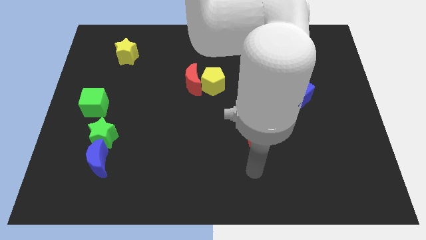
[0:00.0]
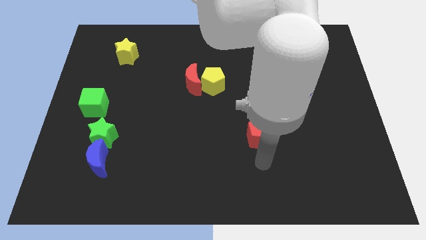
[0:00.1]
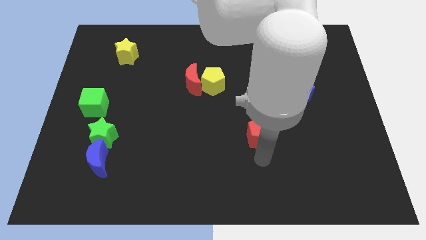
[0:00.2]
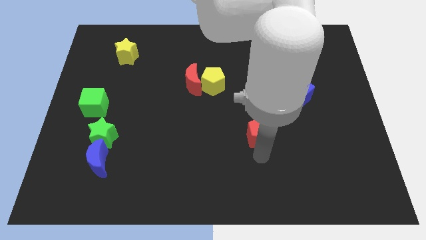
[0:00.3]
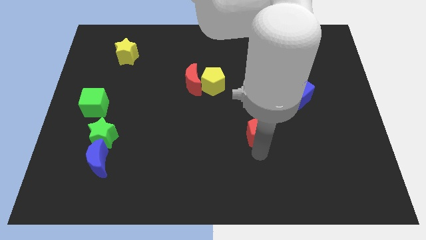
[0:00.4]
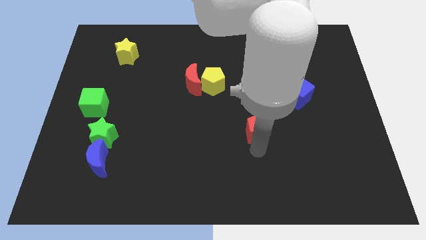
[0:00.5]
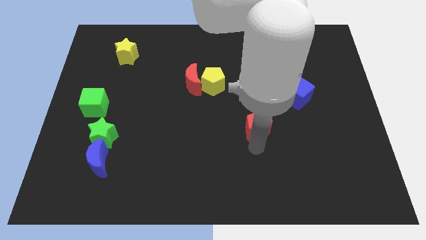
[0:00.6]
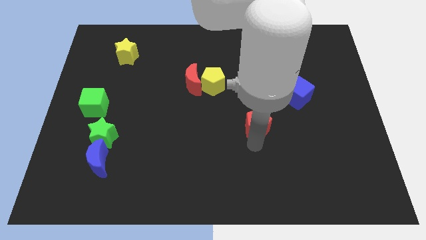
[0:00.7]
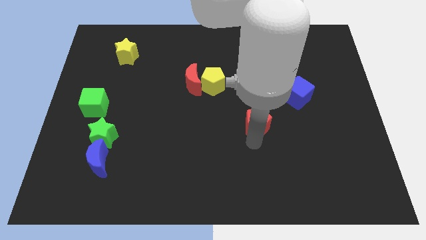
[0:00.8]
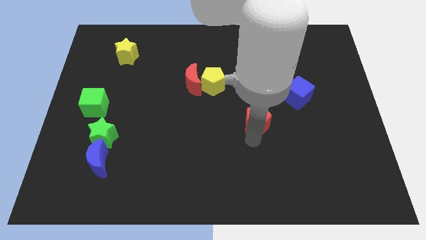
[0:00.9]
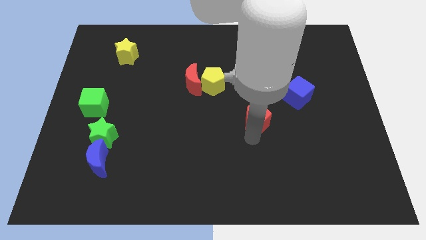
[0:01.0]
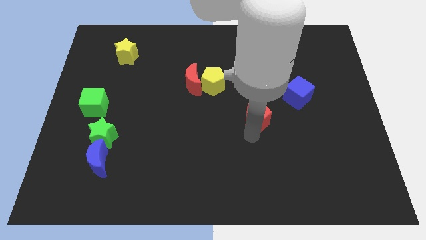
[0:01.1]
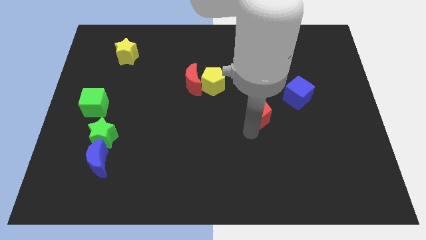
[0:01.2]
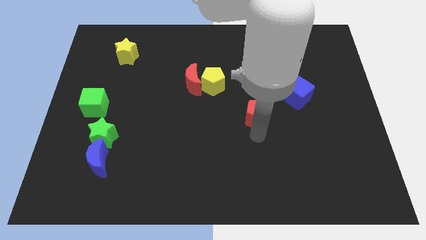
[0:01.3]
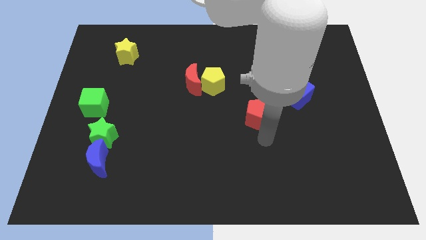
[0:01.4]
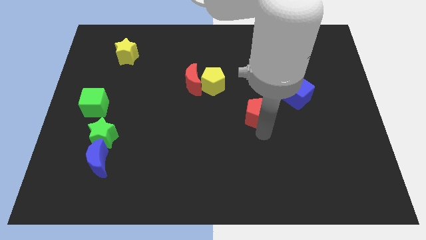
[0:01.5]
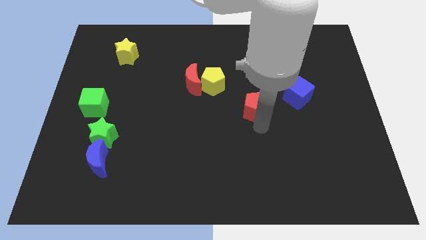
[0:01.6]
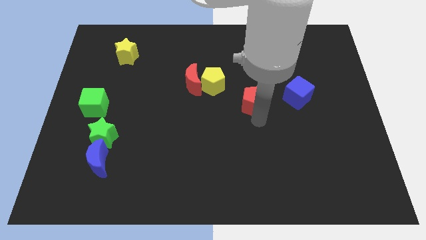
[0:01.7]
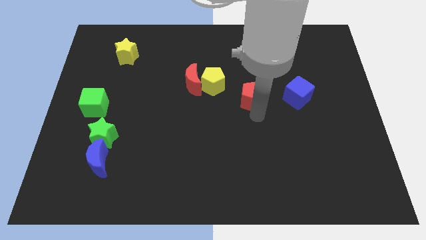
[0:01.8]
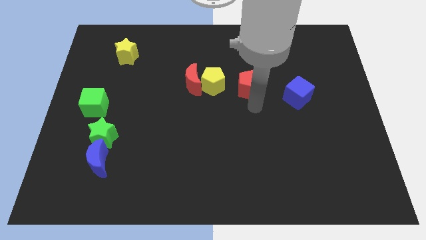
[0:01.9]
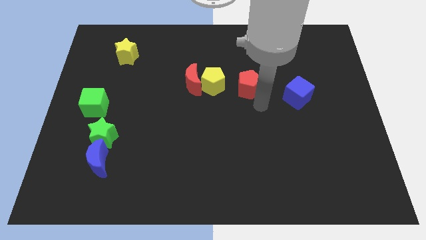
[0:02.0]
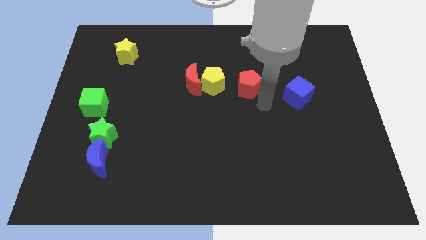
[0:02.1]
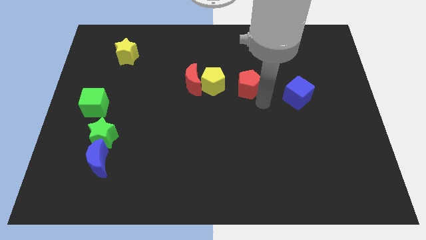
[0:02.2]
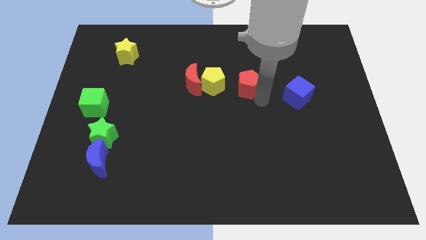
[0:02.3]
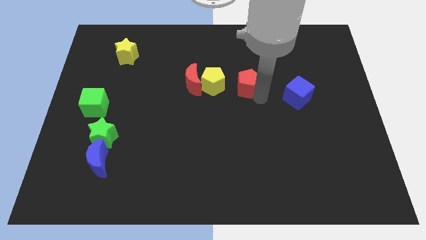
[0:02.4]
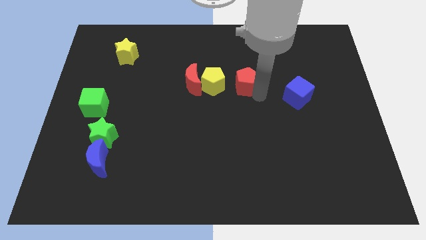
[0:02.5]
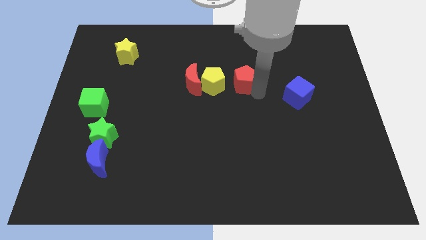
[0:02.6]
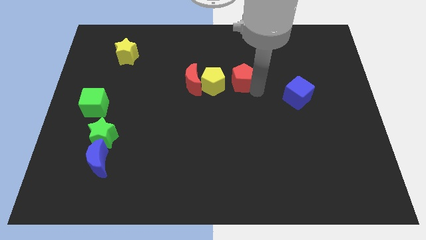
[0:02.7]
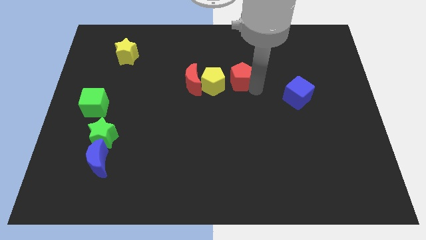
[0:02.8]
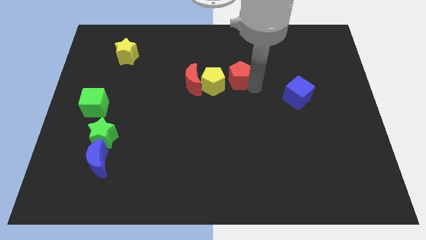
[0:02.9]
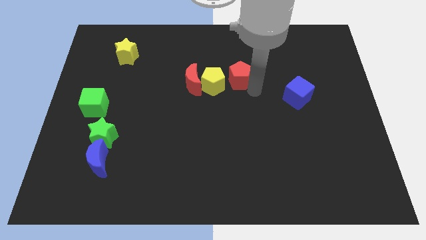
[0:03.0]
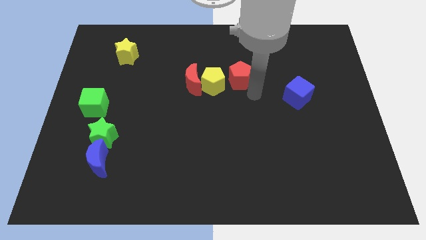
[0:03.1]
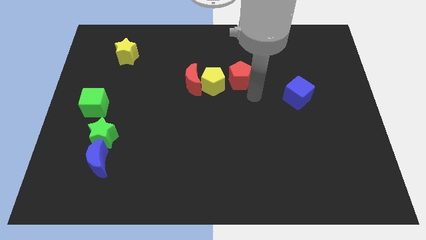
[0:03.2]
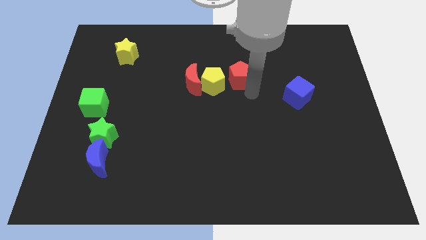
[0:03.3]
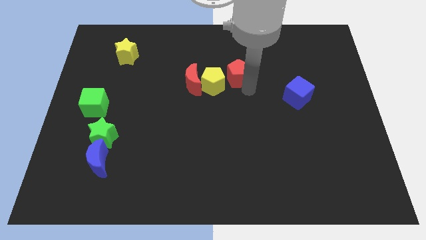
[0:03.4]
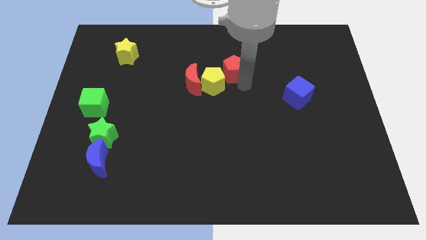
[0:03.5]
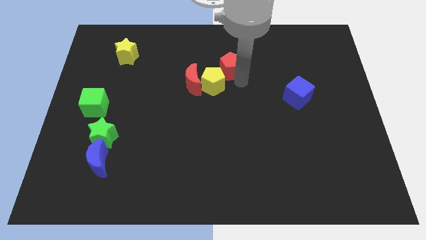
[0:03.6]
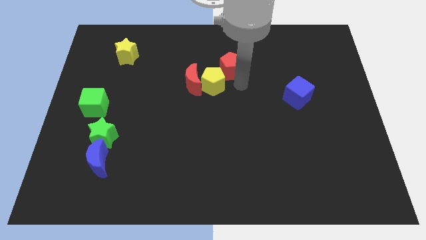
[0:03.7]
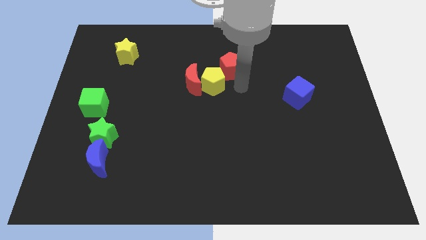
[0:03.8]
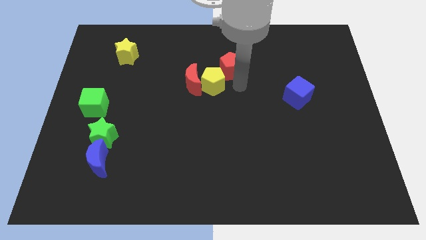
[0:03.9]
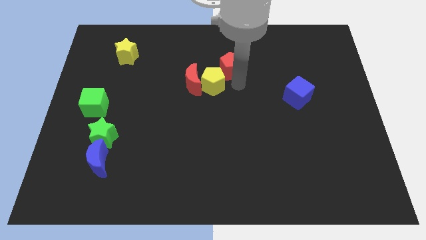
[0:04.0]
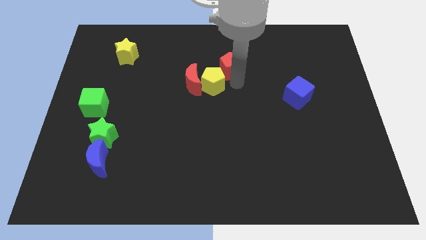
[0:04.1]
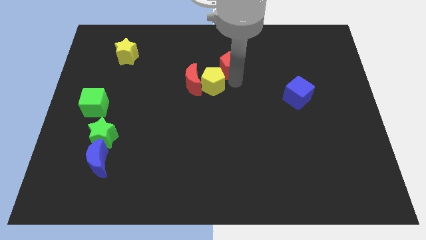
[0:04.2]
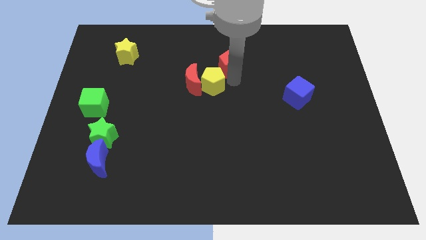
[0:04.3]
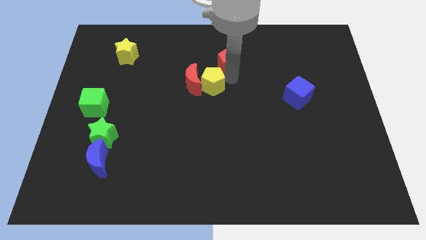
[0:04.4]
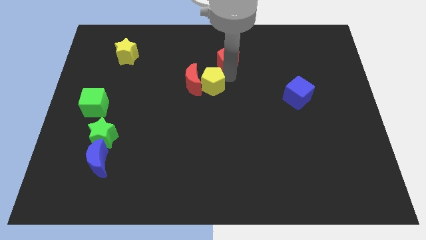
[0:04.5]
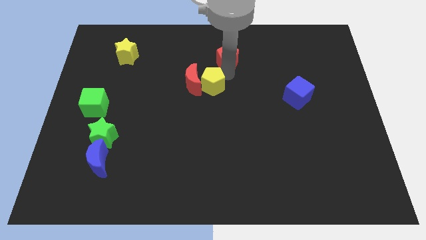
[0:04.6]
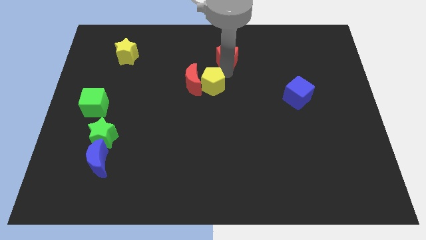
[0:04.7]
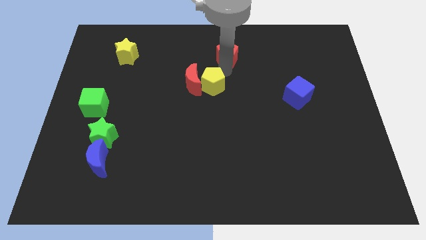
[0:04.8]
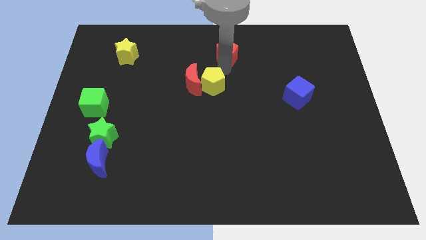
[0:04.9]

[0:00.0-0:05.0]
slide the red pentagon to the top side
